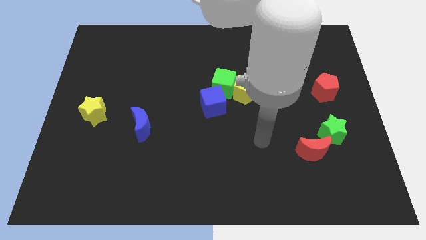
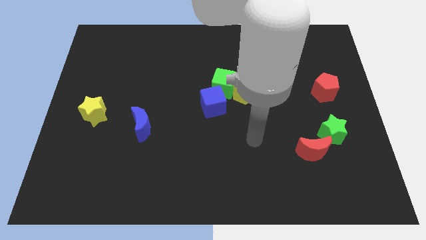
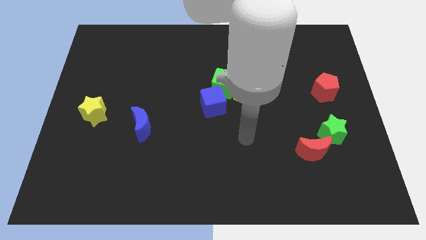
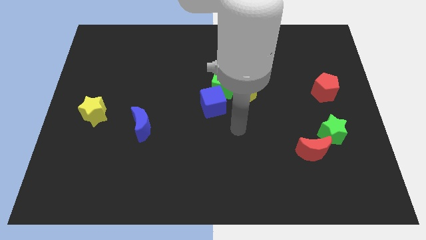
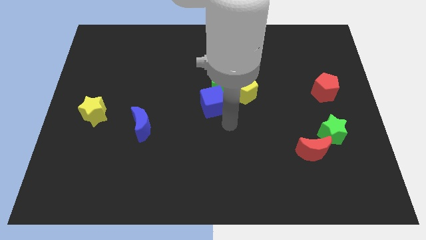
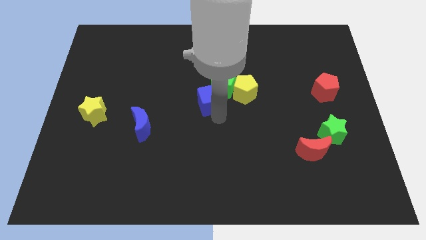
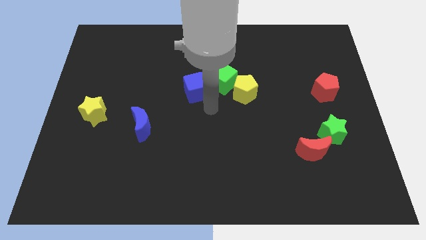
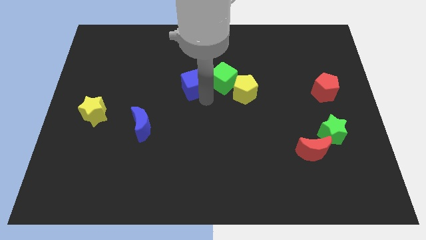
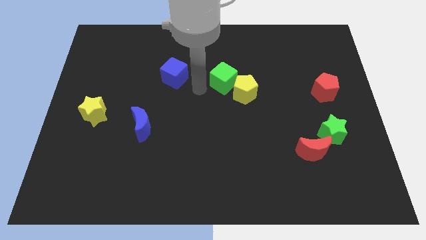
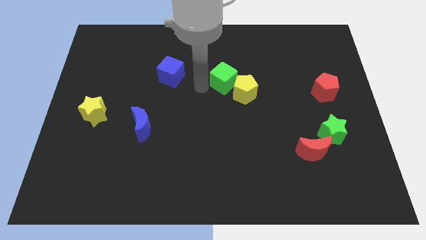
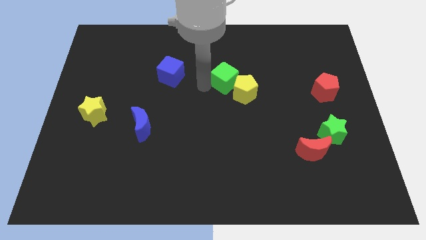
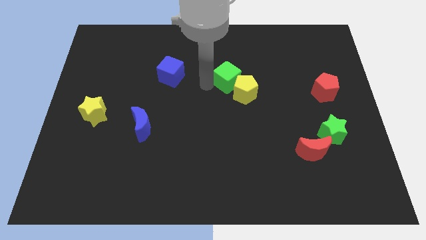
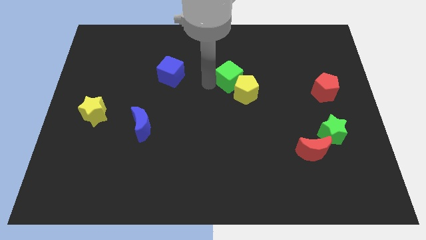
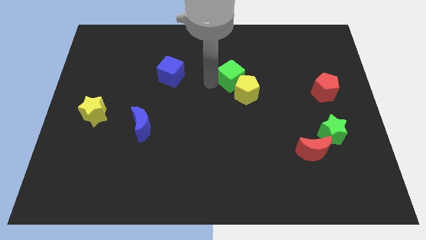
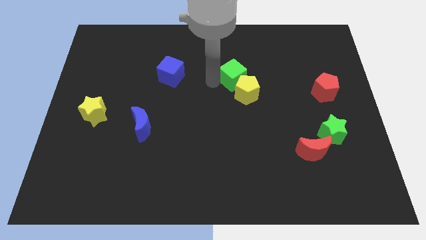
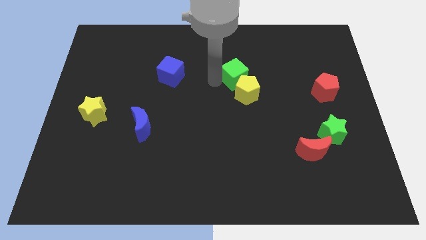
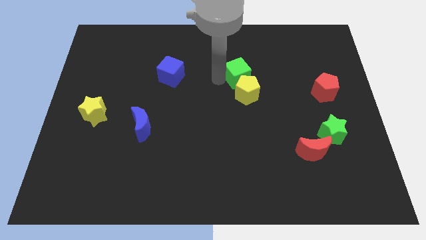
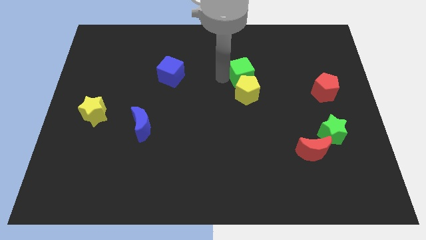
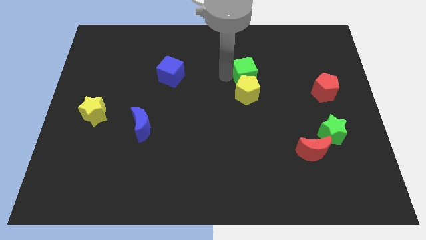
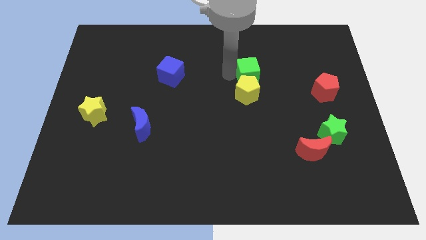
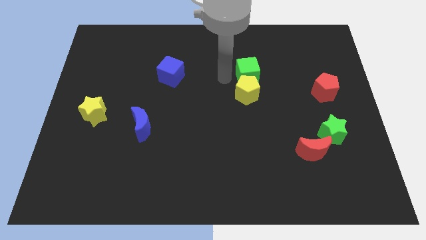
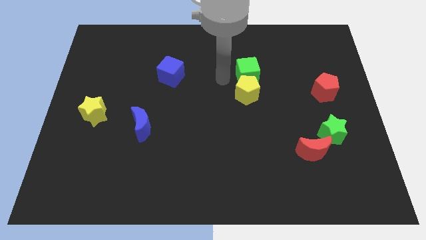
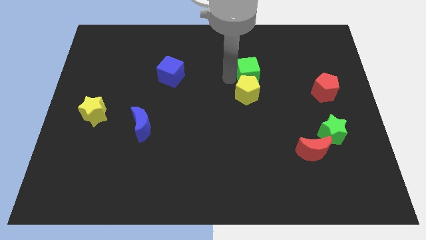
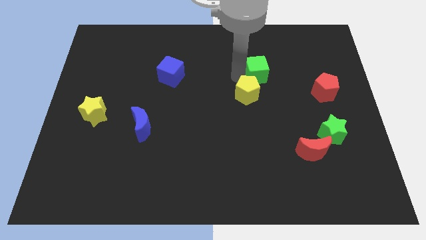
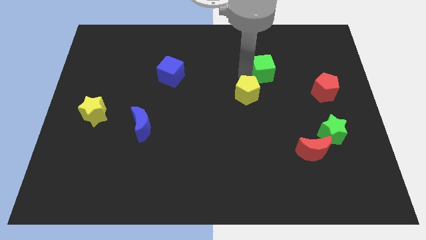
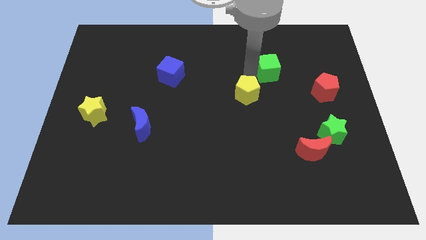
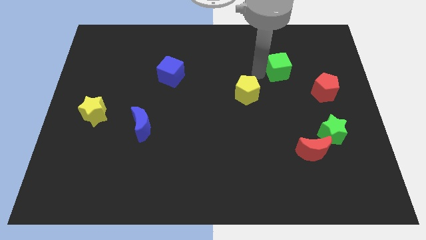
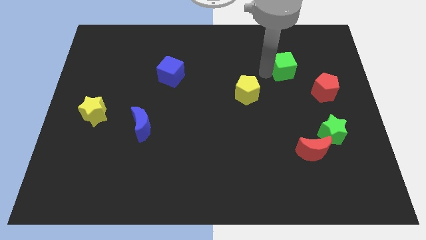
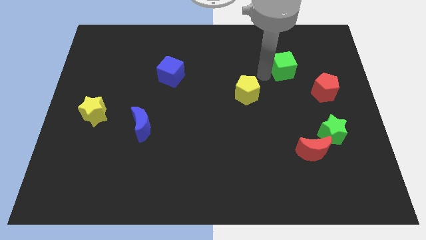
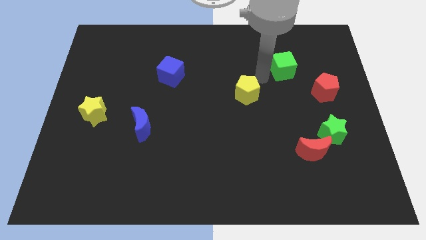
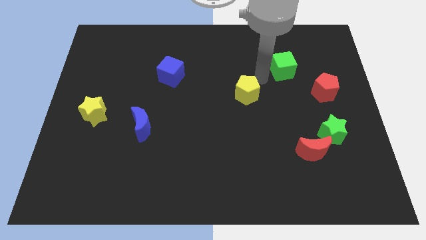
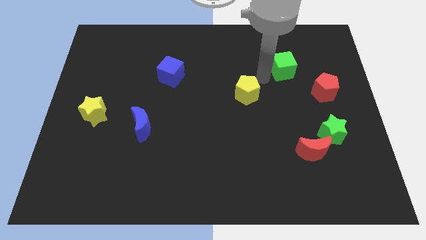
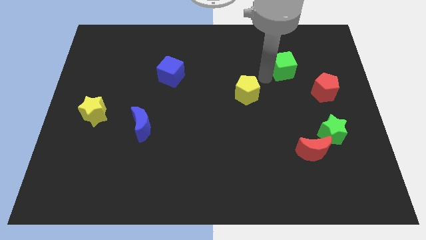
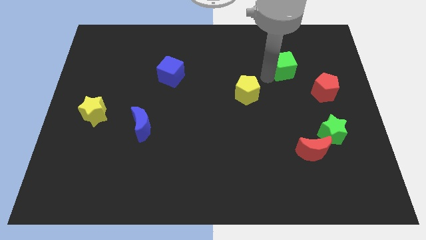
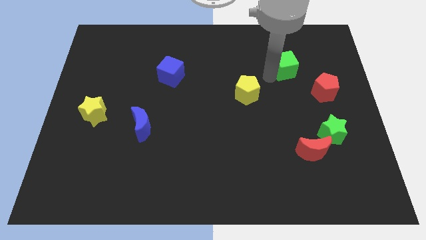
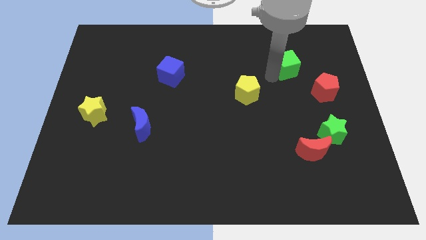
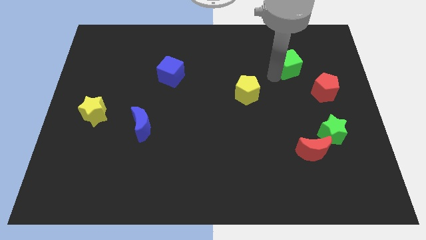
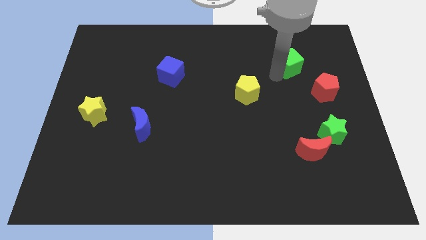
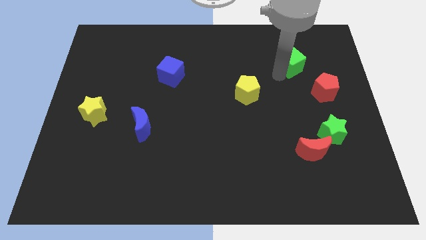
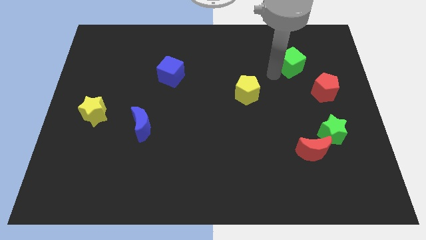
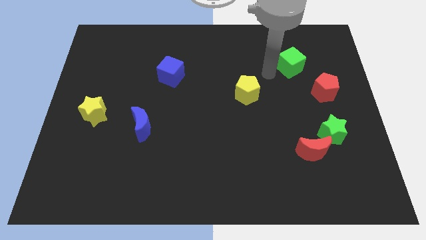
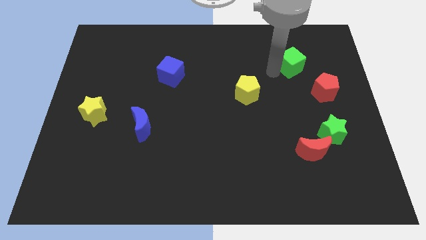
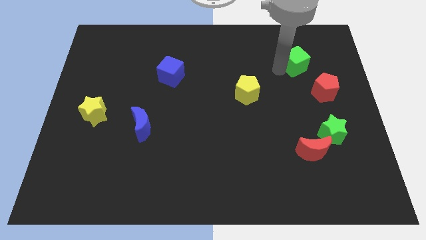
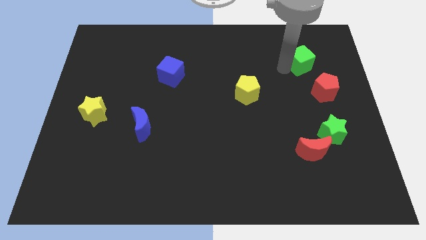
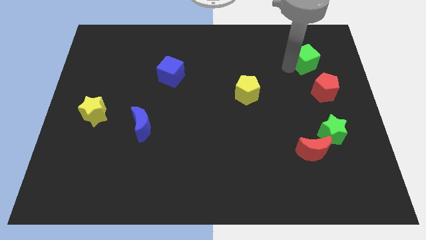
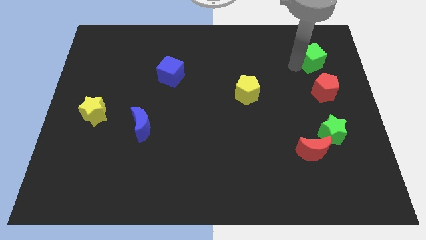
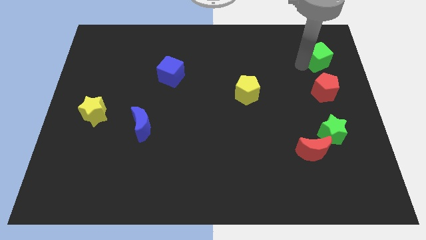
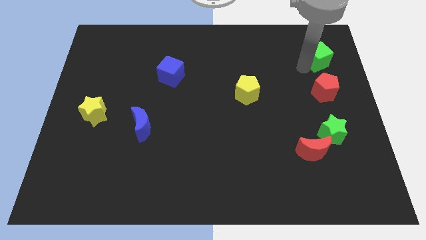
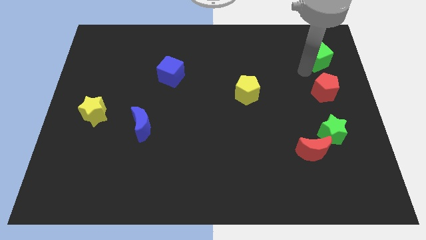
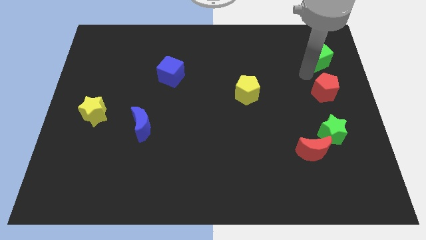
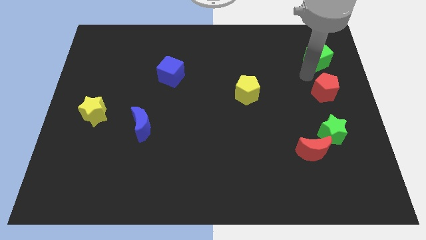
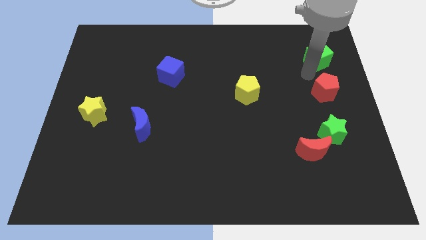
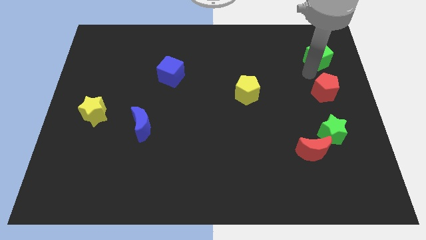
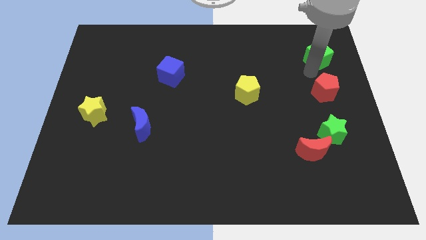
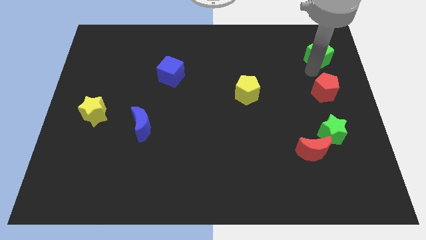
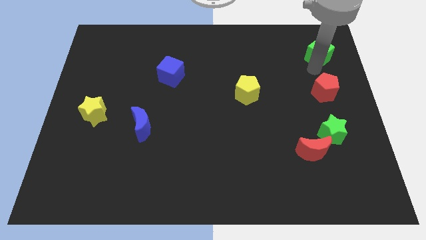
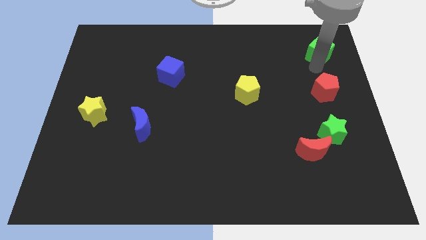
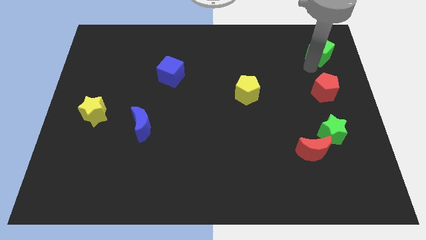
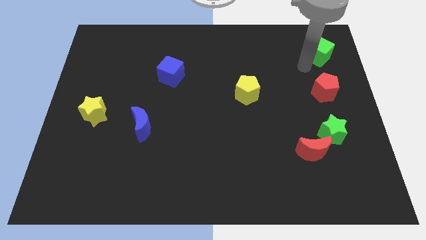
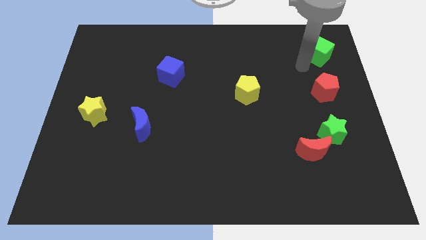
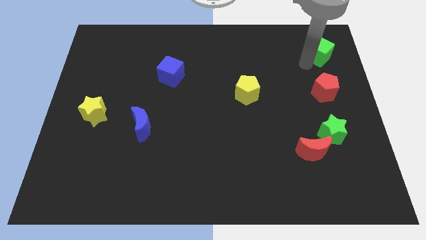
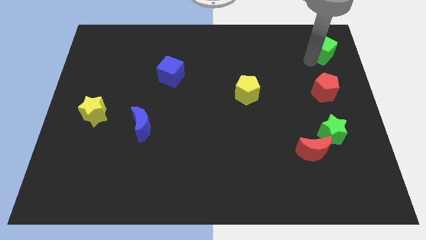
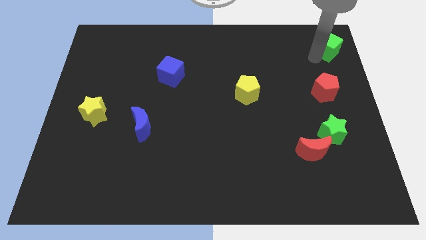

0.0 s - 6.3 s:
slide the green cube to the upper right corner
